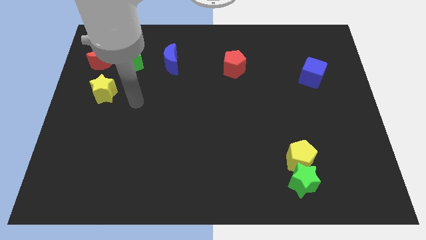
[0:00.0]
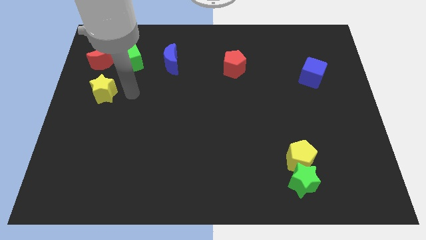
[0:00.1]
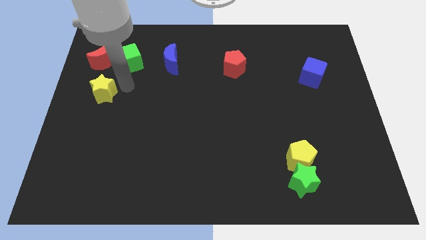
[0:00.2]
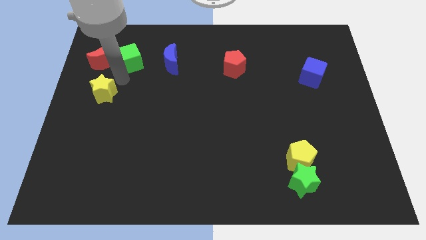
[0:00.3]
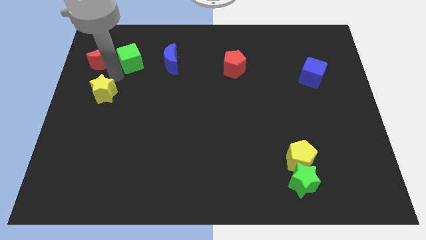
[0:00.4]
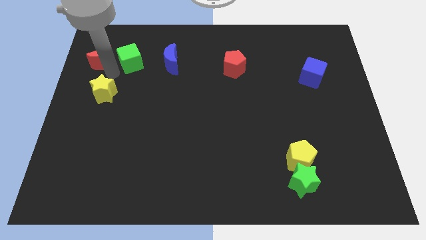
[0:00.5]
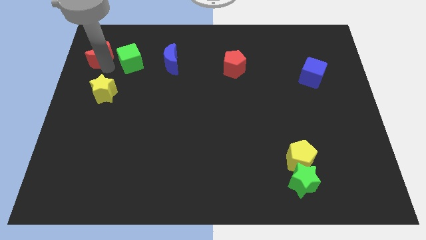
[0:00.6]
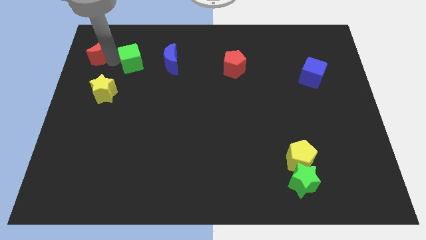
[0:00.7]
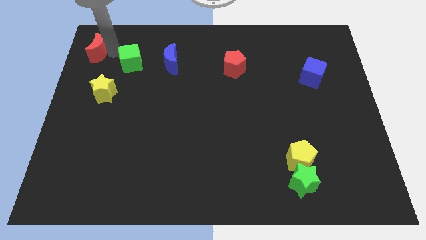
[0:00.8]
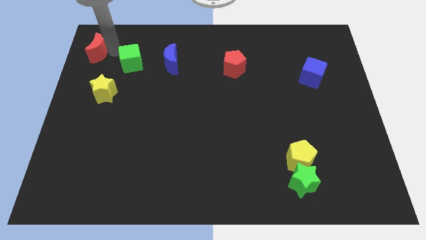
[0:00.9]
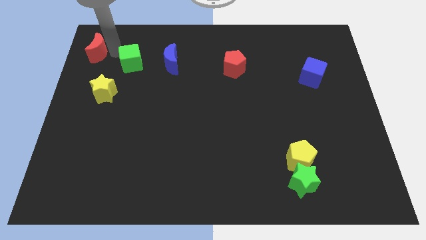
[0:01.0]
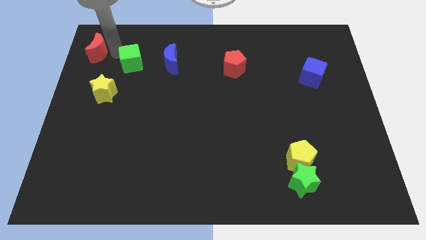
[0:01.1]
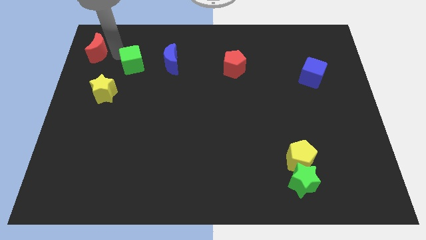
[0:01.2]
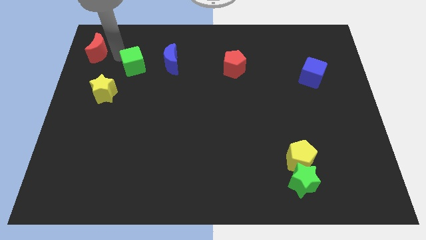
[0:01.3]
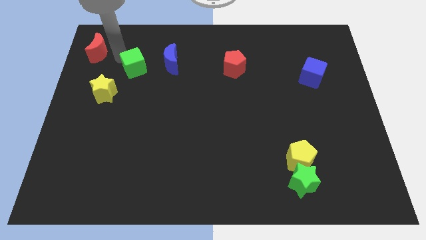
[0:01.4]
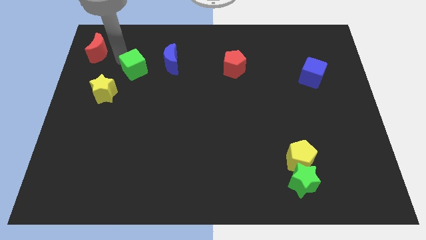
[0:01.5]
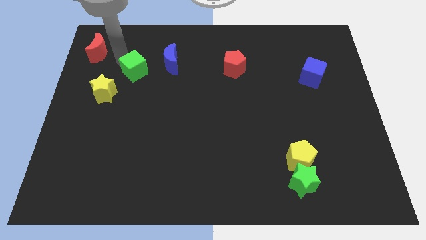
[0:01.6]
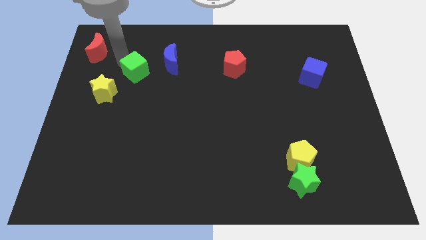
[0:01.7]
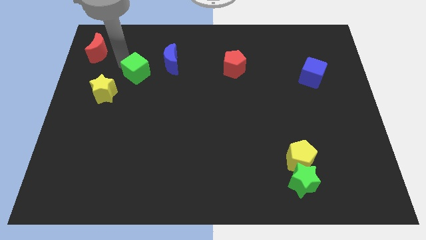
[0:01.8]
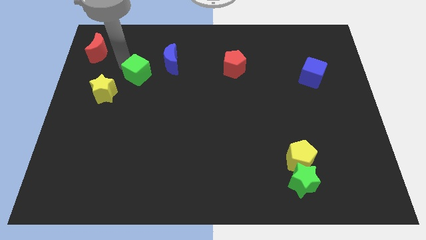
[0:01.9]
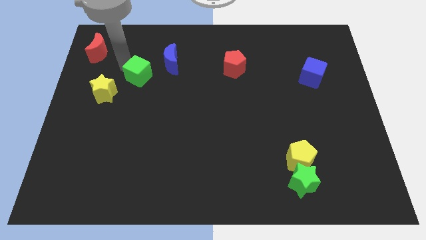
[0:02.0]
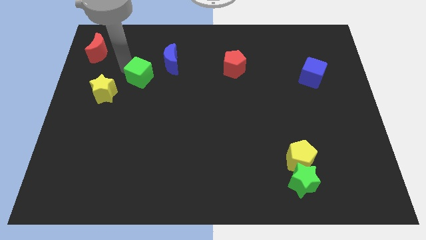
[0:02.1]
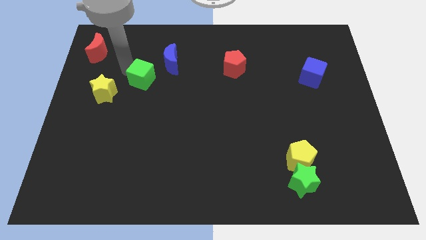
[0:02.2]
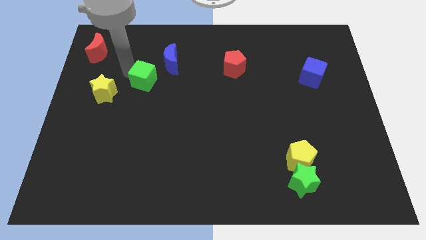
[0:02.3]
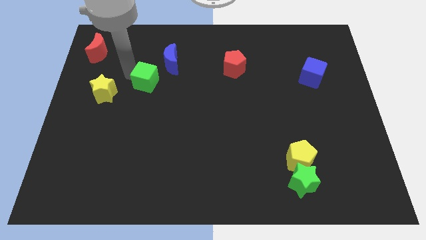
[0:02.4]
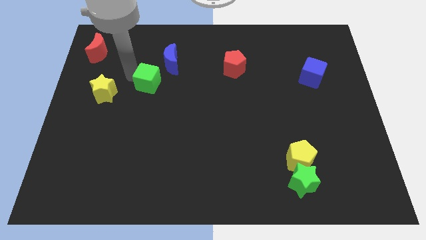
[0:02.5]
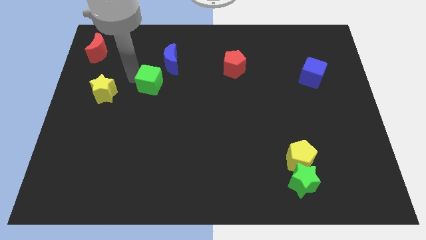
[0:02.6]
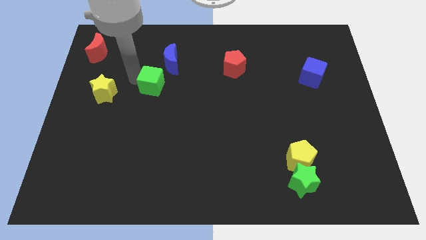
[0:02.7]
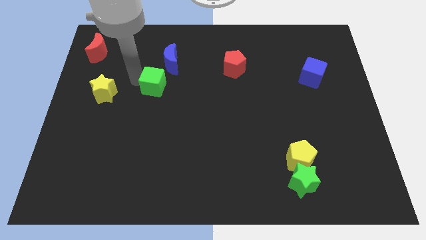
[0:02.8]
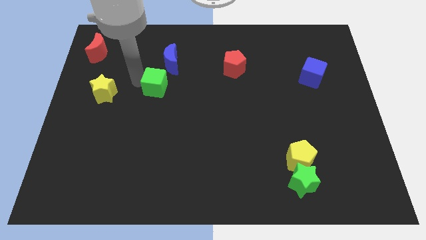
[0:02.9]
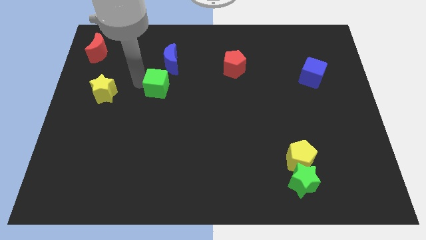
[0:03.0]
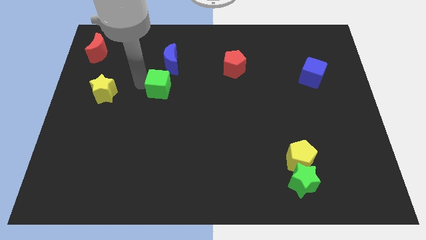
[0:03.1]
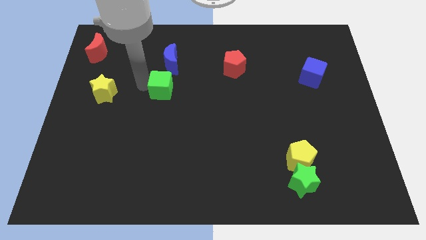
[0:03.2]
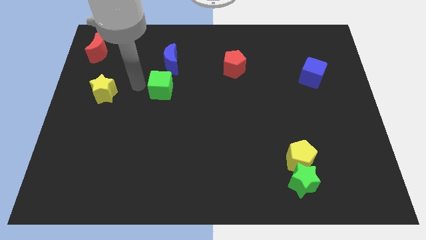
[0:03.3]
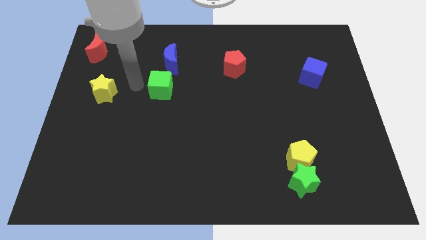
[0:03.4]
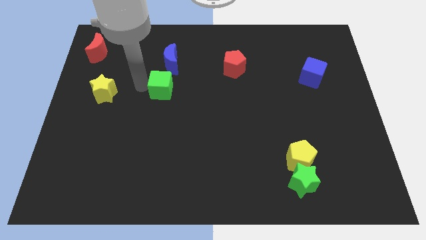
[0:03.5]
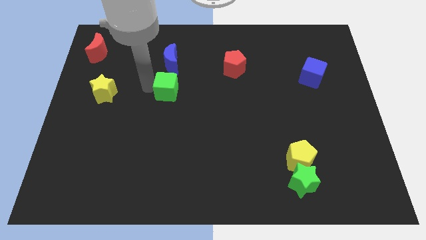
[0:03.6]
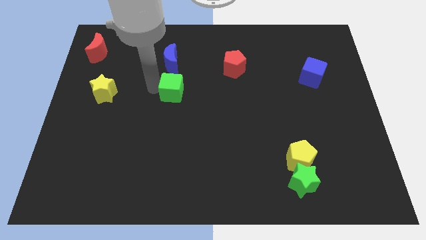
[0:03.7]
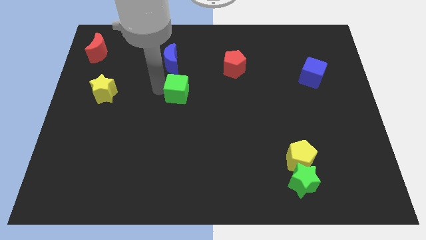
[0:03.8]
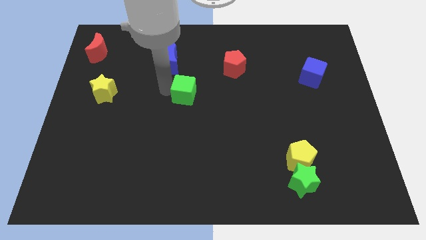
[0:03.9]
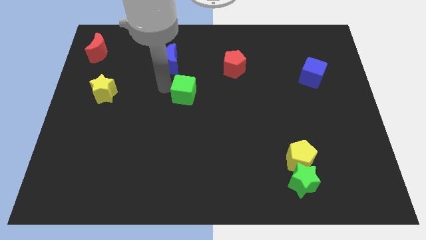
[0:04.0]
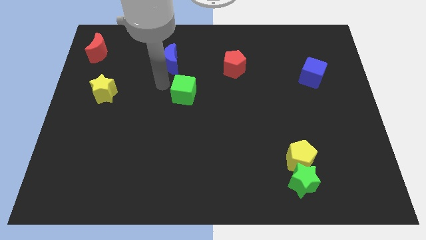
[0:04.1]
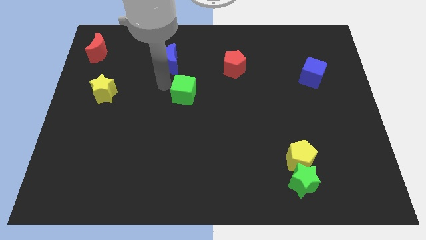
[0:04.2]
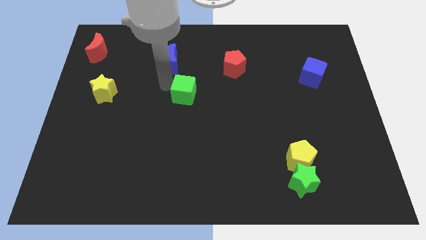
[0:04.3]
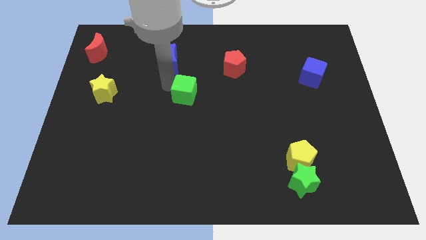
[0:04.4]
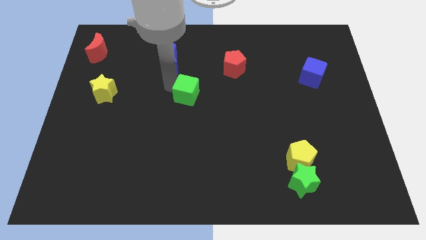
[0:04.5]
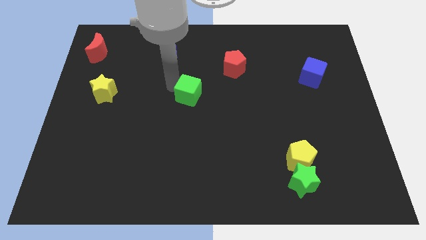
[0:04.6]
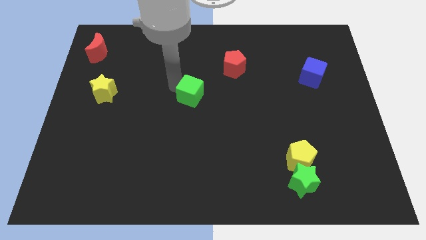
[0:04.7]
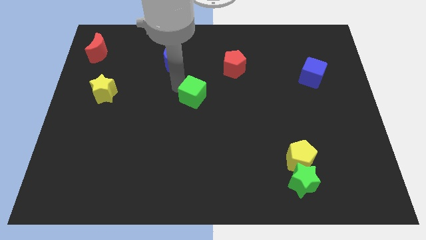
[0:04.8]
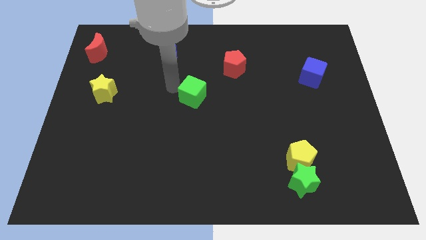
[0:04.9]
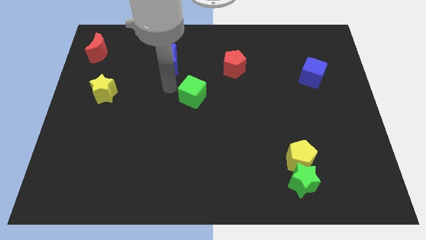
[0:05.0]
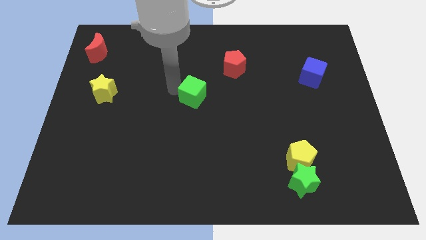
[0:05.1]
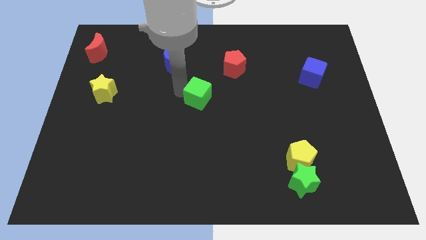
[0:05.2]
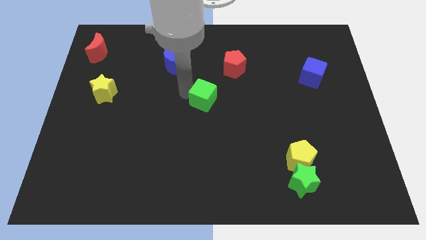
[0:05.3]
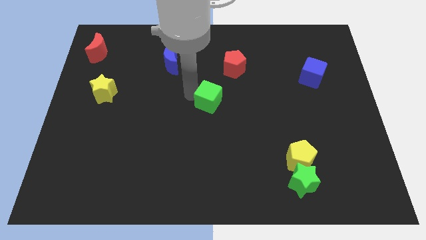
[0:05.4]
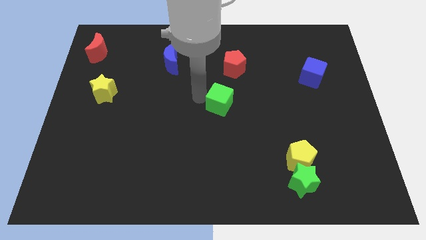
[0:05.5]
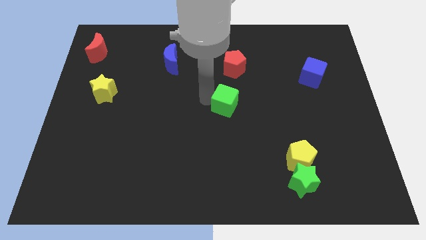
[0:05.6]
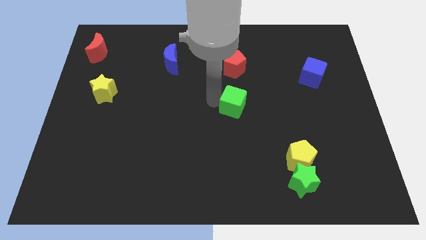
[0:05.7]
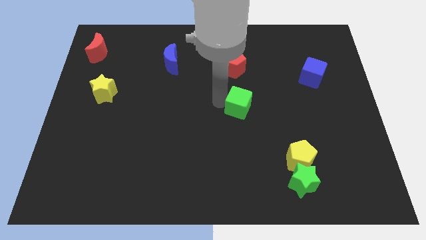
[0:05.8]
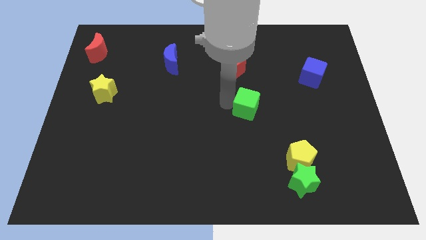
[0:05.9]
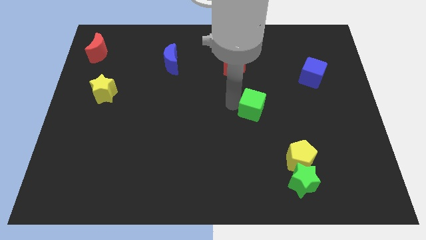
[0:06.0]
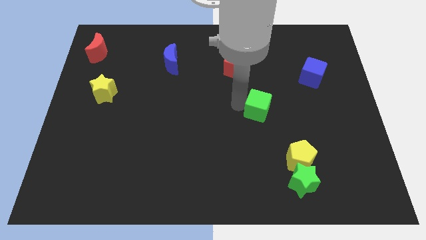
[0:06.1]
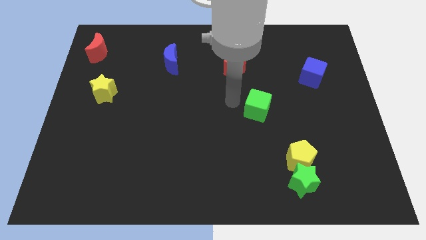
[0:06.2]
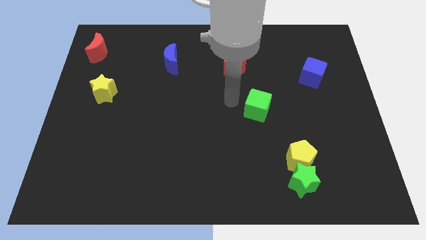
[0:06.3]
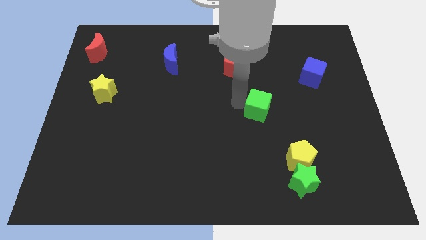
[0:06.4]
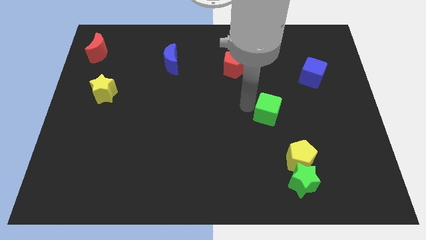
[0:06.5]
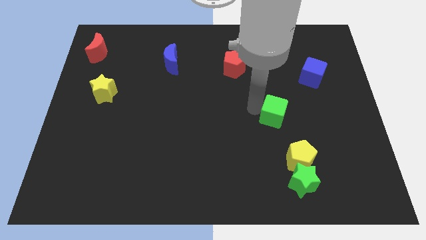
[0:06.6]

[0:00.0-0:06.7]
slide the green cube to the top side of the yellow pentagon

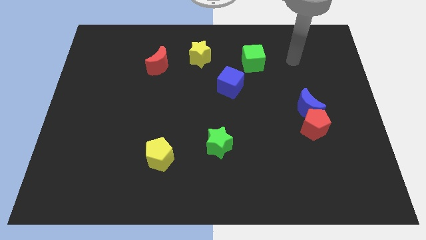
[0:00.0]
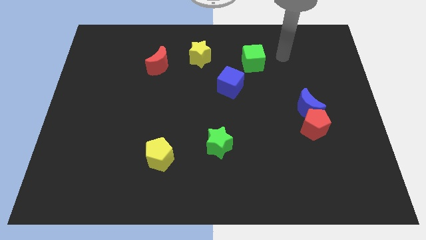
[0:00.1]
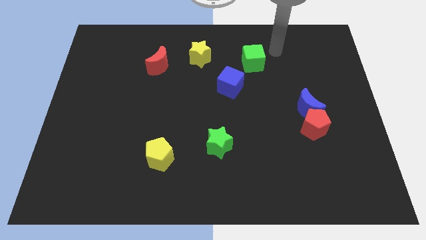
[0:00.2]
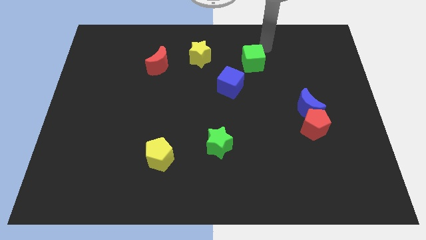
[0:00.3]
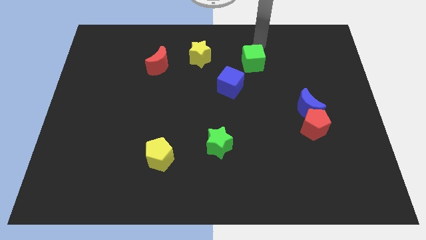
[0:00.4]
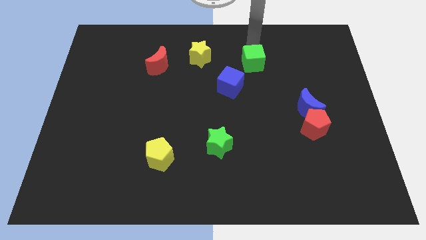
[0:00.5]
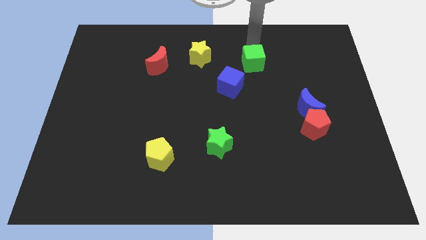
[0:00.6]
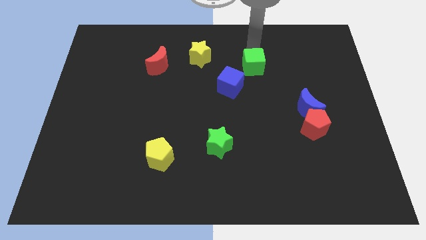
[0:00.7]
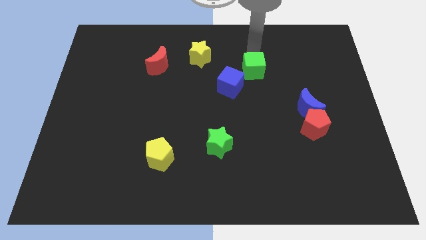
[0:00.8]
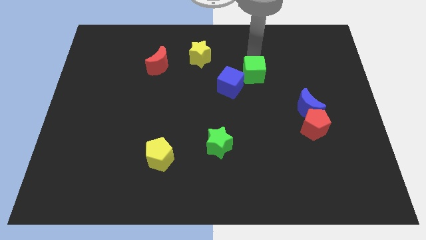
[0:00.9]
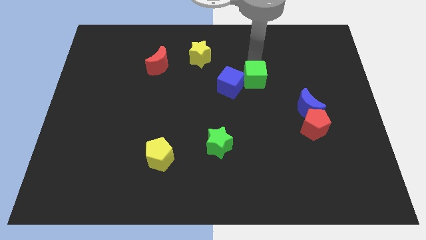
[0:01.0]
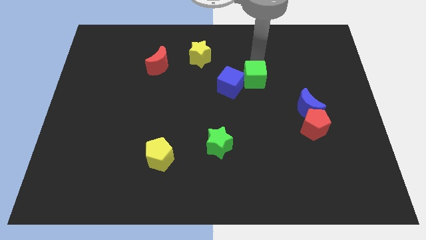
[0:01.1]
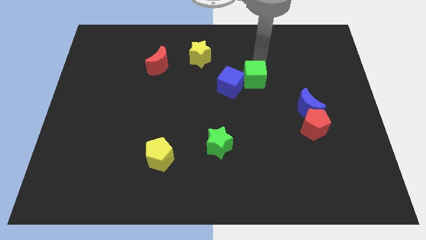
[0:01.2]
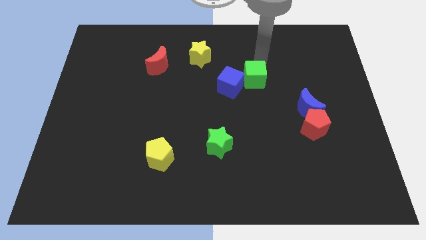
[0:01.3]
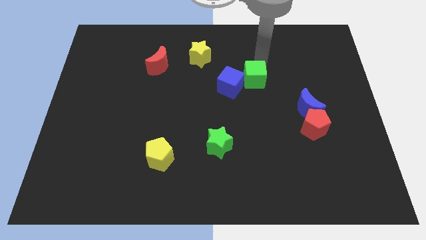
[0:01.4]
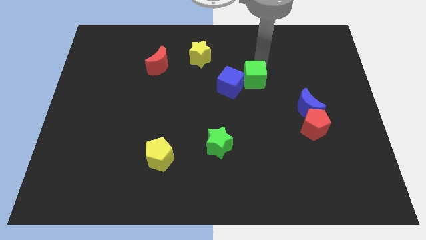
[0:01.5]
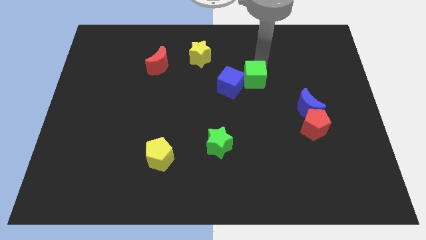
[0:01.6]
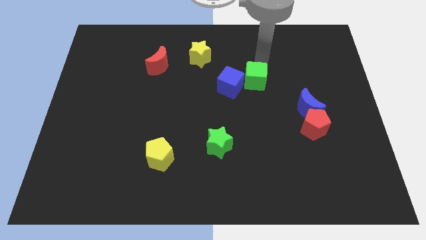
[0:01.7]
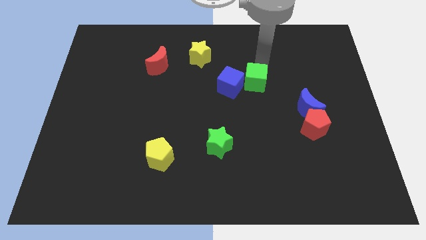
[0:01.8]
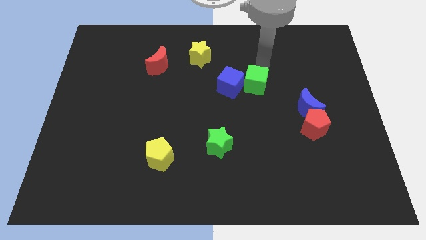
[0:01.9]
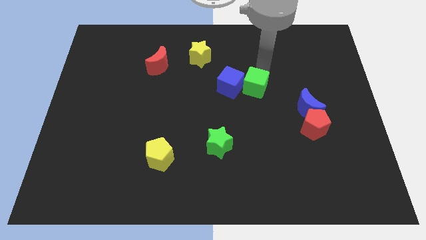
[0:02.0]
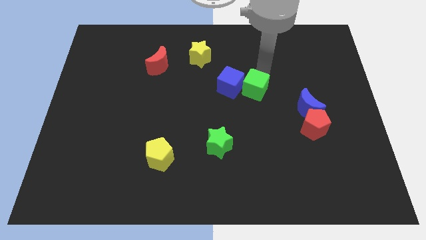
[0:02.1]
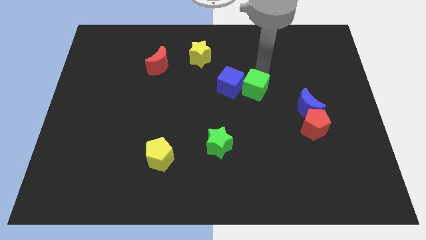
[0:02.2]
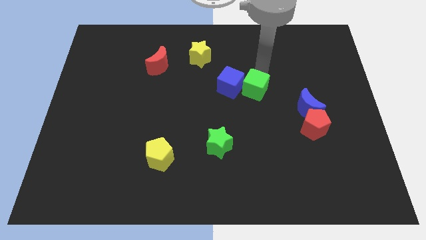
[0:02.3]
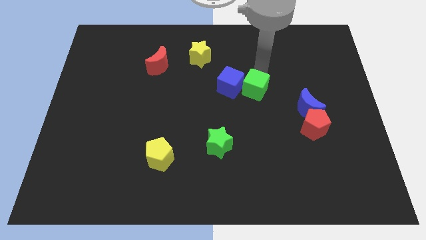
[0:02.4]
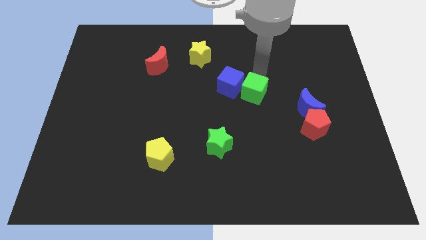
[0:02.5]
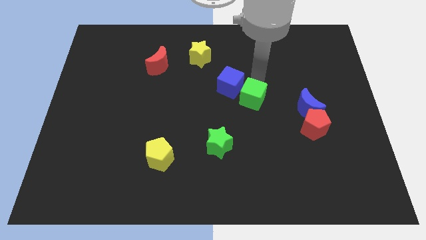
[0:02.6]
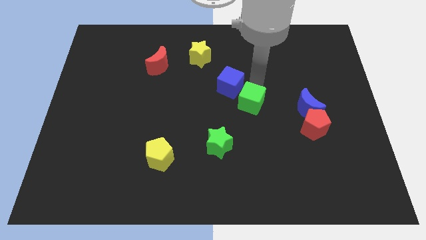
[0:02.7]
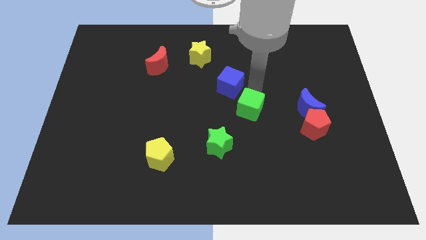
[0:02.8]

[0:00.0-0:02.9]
push the green cube diagonally up and to the right of the green star
